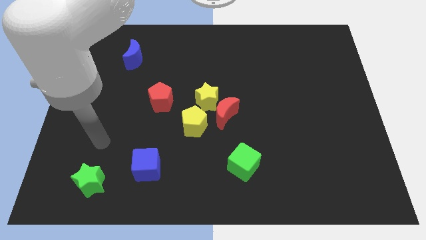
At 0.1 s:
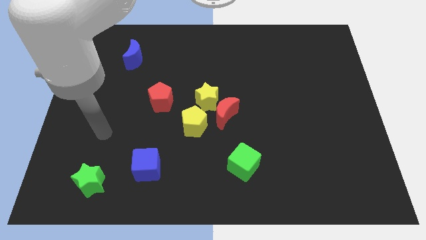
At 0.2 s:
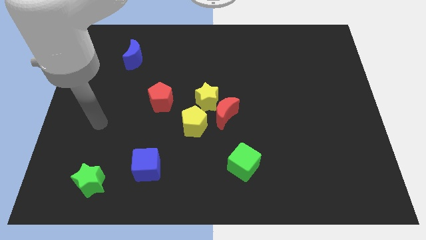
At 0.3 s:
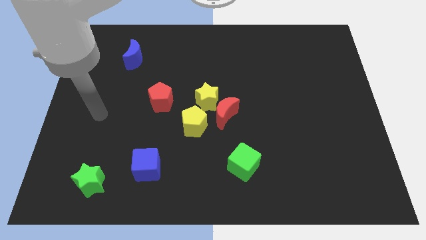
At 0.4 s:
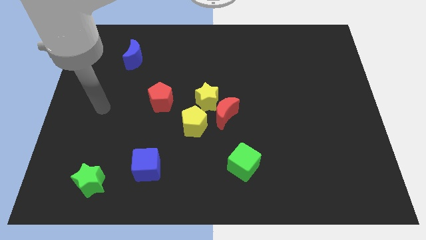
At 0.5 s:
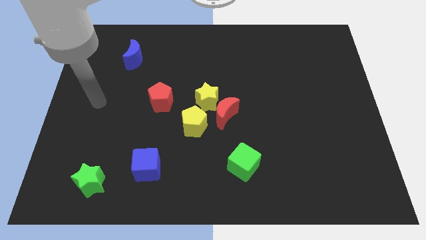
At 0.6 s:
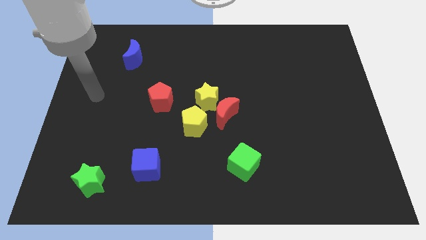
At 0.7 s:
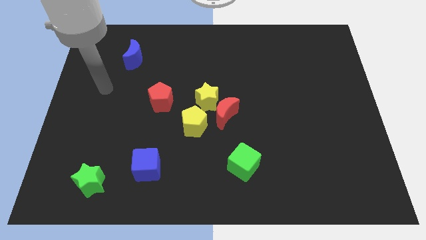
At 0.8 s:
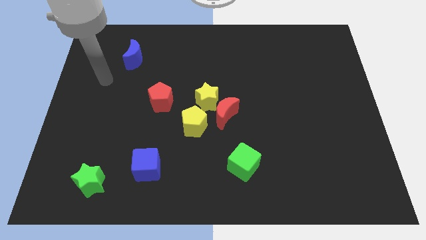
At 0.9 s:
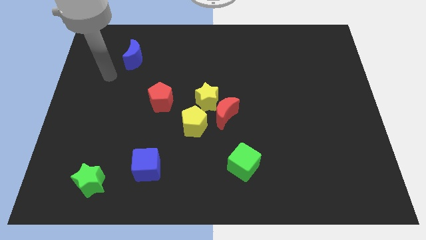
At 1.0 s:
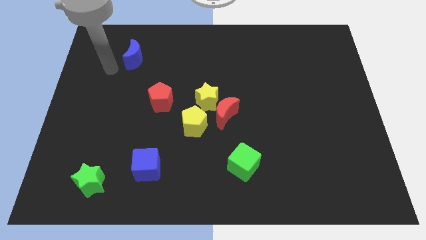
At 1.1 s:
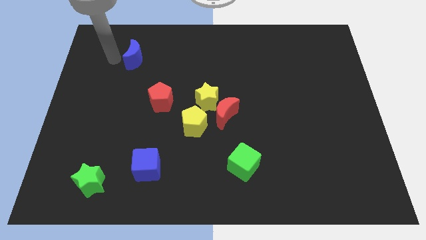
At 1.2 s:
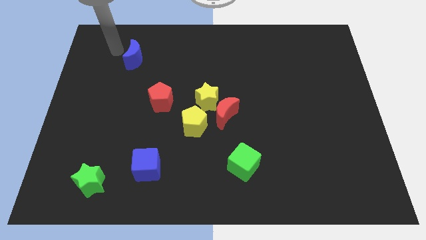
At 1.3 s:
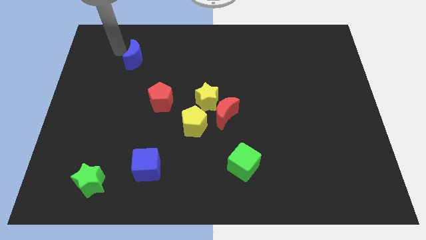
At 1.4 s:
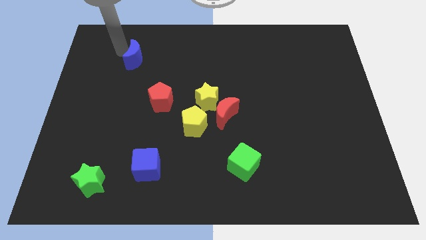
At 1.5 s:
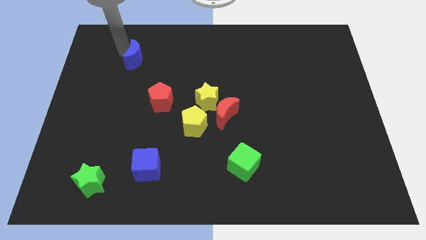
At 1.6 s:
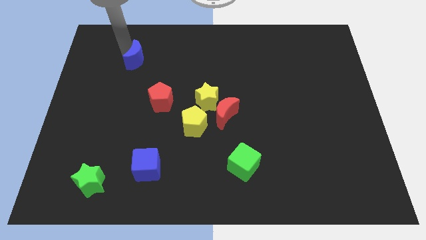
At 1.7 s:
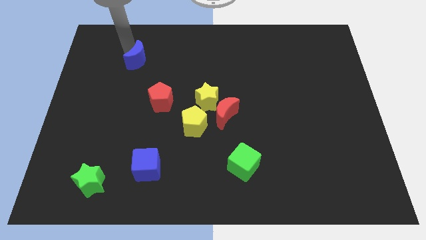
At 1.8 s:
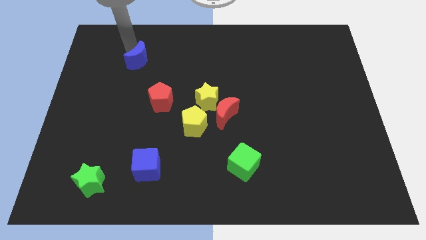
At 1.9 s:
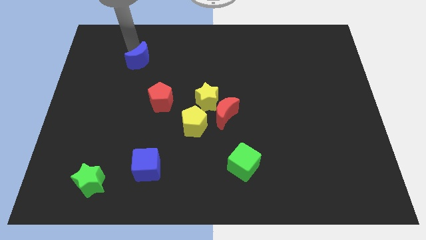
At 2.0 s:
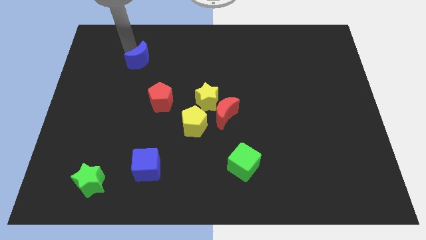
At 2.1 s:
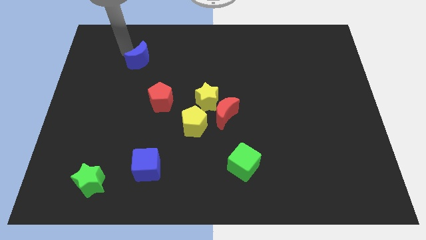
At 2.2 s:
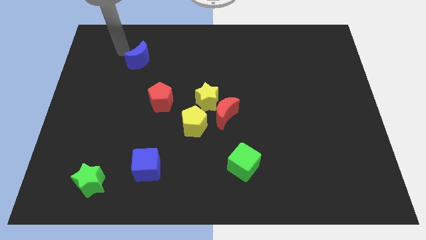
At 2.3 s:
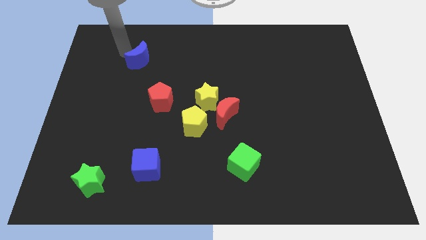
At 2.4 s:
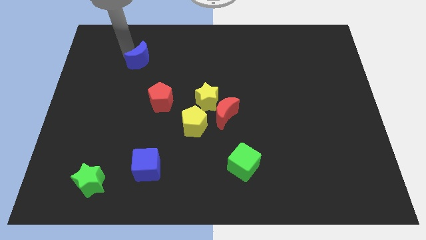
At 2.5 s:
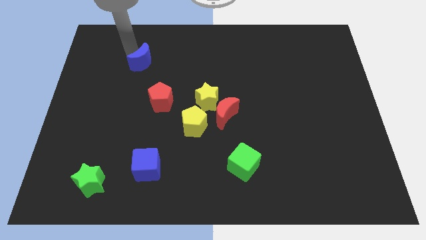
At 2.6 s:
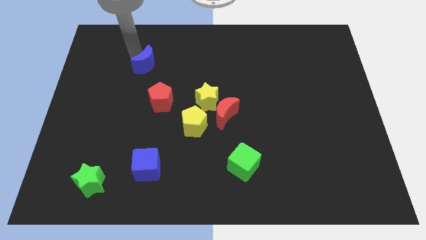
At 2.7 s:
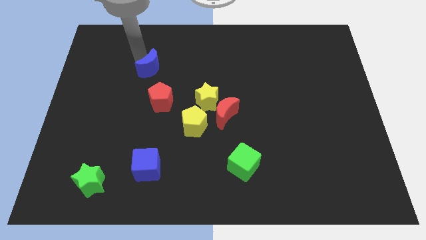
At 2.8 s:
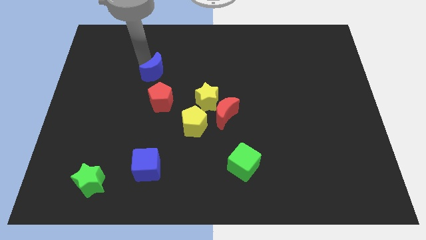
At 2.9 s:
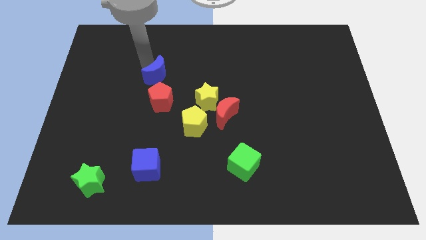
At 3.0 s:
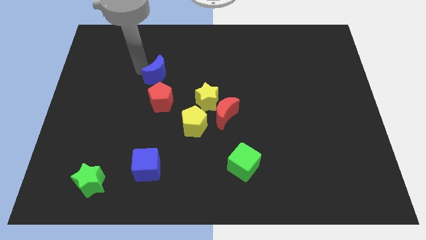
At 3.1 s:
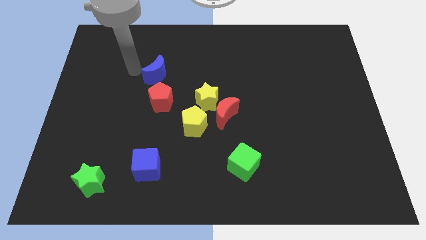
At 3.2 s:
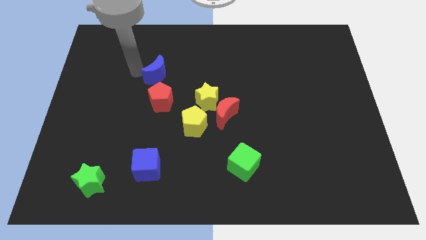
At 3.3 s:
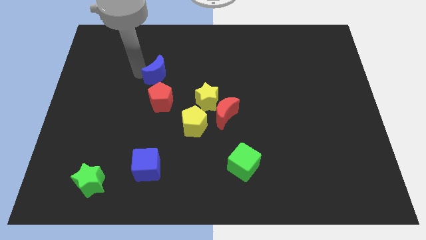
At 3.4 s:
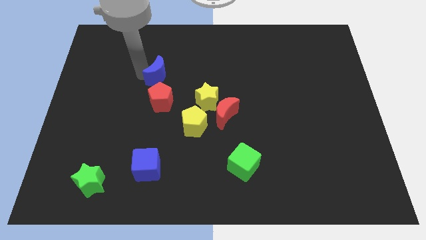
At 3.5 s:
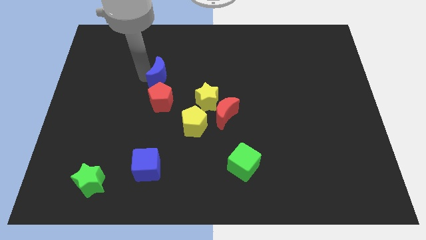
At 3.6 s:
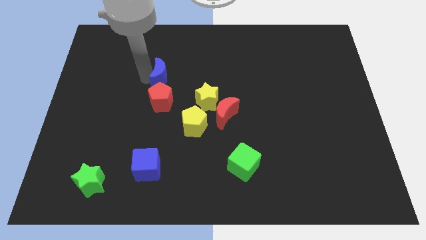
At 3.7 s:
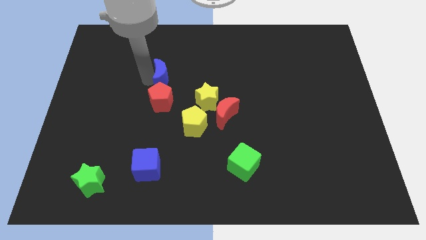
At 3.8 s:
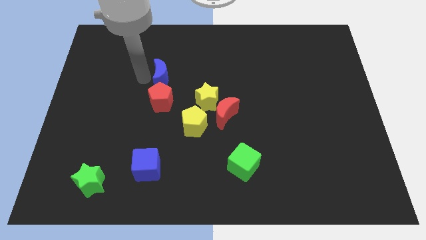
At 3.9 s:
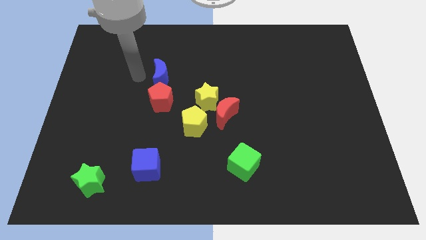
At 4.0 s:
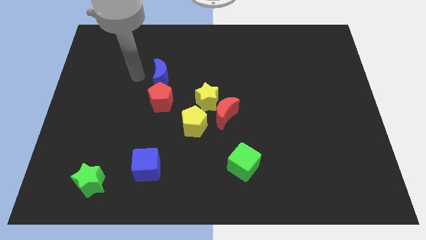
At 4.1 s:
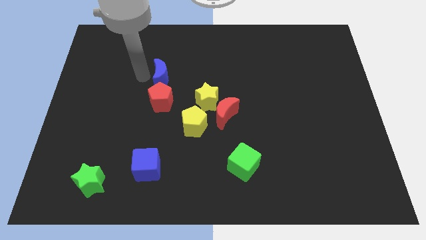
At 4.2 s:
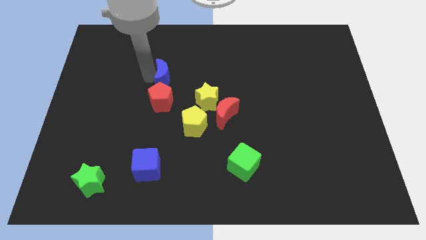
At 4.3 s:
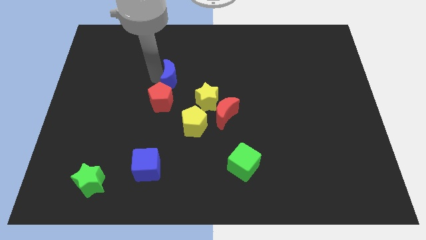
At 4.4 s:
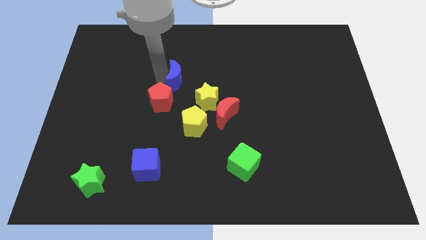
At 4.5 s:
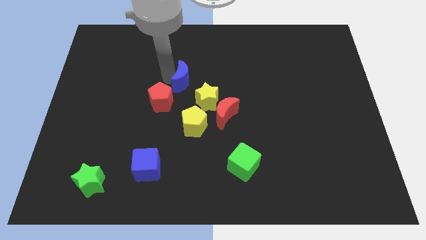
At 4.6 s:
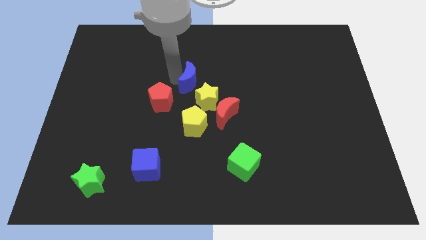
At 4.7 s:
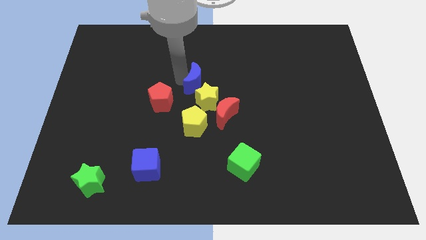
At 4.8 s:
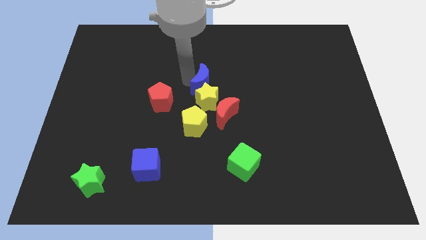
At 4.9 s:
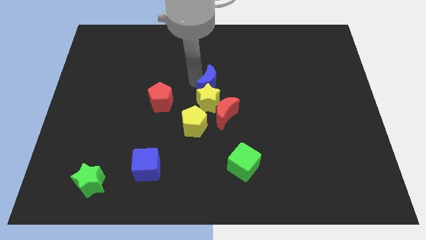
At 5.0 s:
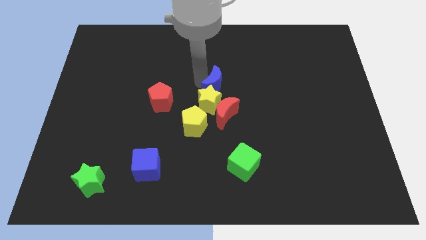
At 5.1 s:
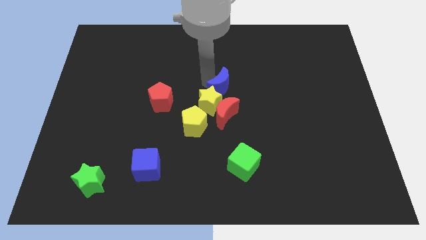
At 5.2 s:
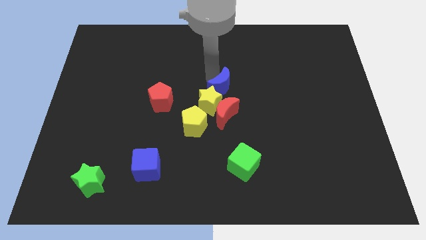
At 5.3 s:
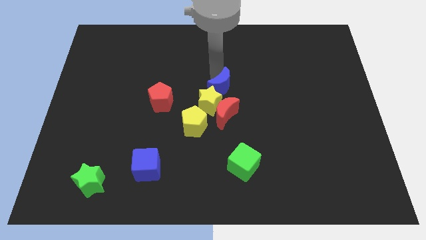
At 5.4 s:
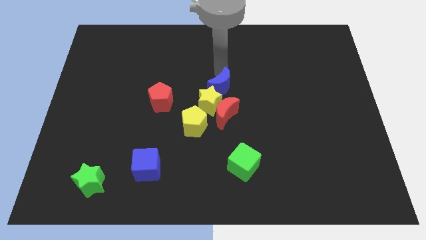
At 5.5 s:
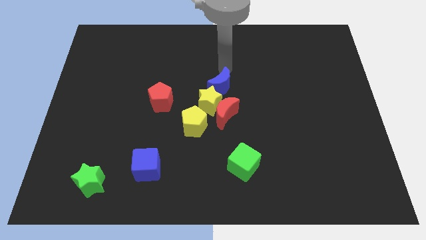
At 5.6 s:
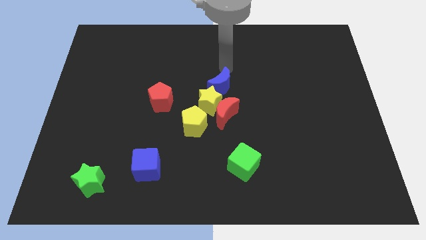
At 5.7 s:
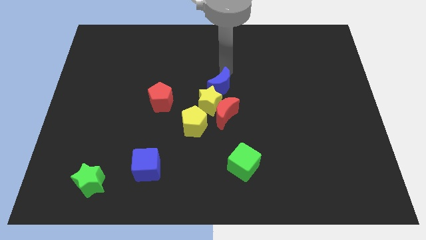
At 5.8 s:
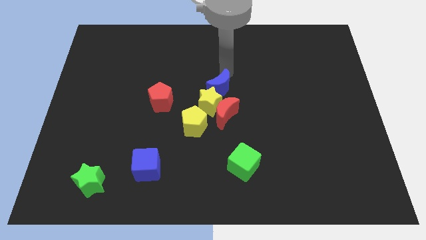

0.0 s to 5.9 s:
push the blue moon to the top right side of the yellow pentagon

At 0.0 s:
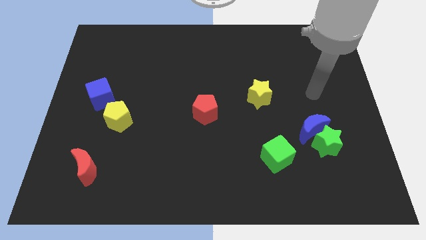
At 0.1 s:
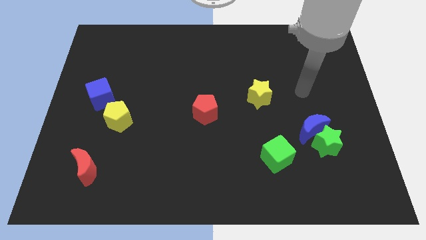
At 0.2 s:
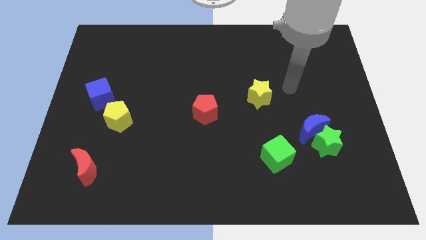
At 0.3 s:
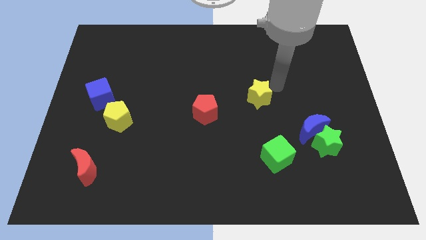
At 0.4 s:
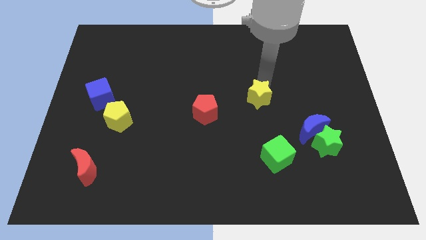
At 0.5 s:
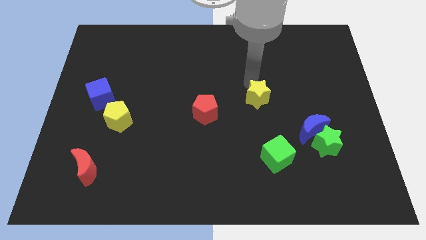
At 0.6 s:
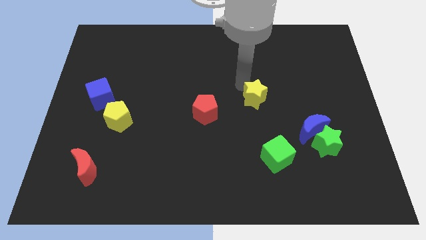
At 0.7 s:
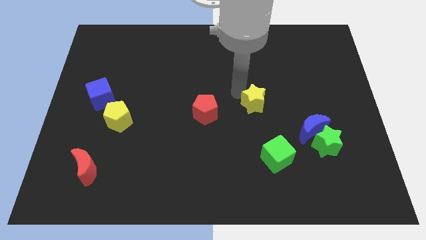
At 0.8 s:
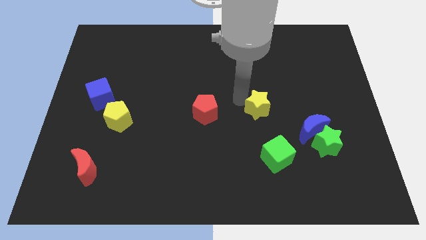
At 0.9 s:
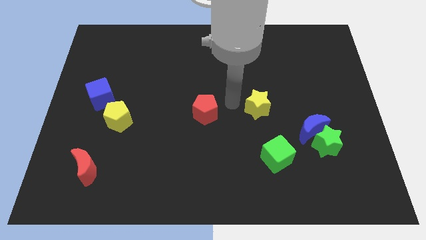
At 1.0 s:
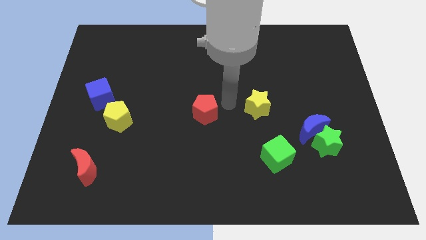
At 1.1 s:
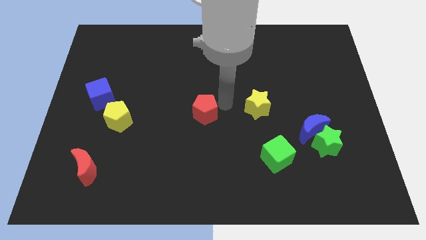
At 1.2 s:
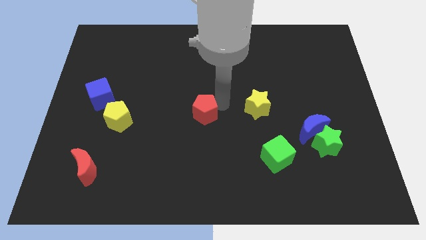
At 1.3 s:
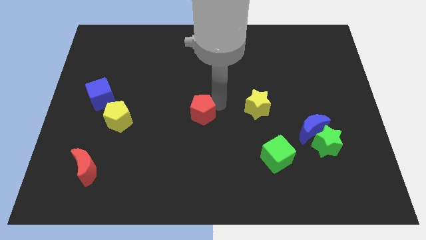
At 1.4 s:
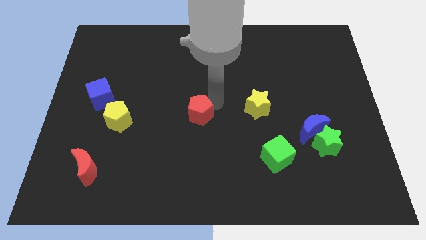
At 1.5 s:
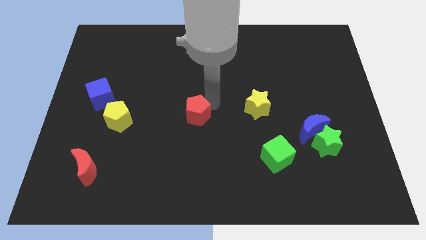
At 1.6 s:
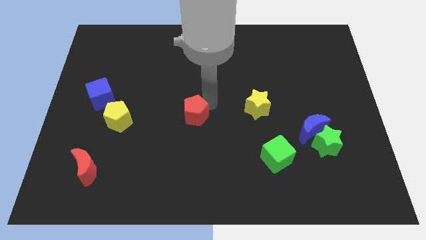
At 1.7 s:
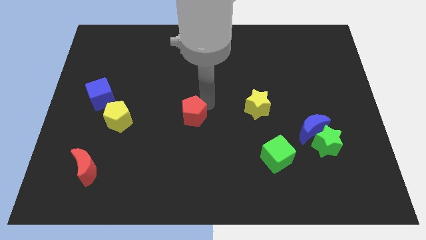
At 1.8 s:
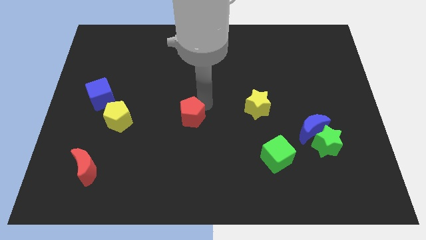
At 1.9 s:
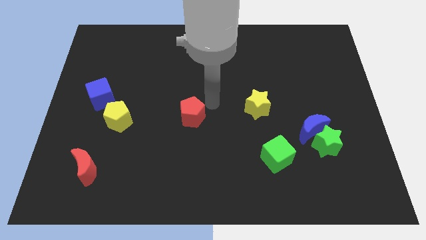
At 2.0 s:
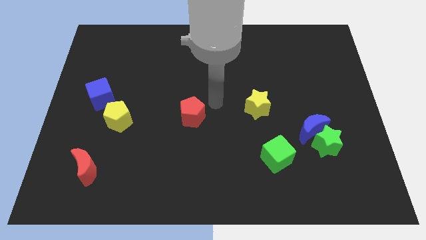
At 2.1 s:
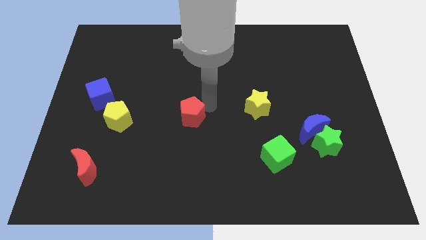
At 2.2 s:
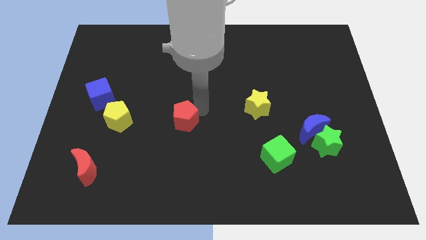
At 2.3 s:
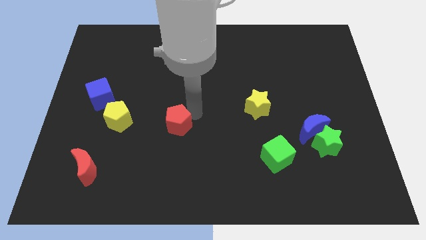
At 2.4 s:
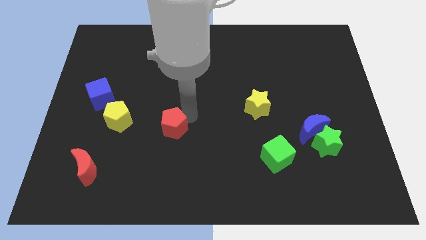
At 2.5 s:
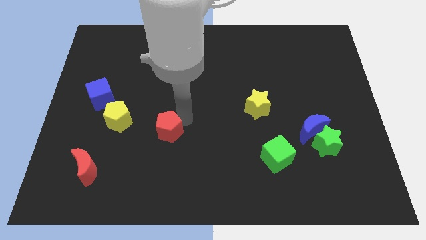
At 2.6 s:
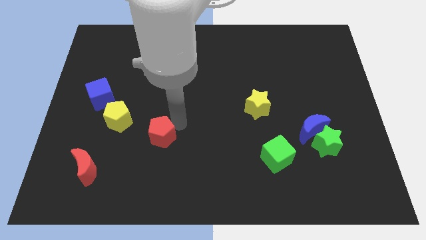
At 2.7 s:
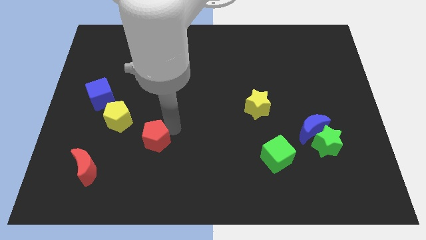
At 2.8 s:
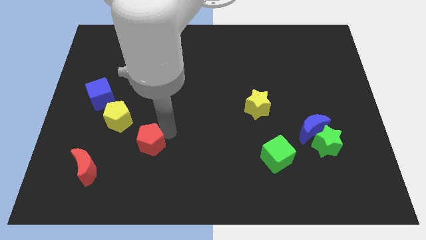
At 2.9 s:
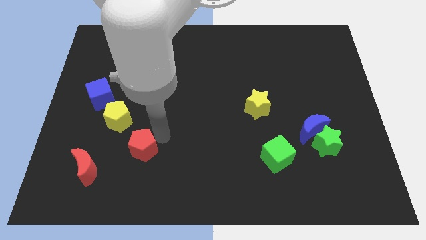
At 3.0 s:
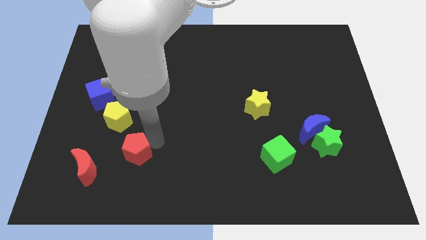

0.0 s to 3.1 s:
move the red pentagon to the top right side of the red moon
